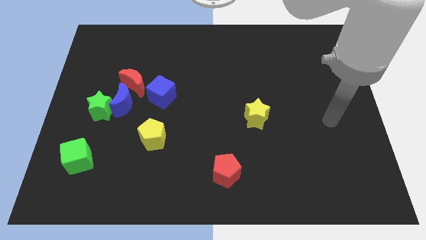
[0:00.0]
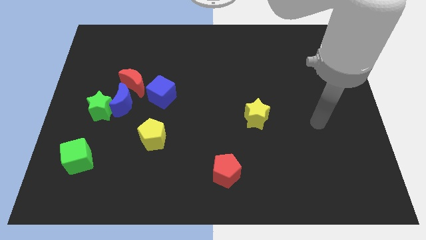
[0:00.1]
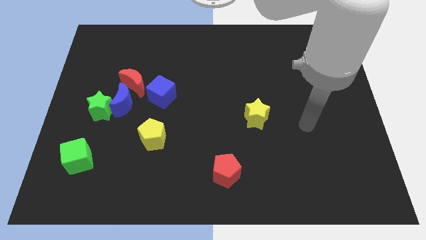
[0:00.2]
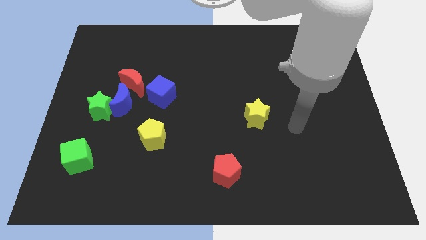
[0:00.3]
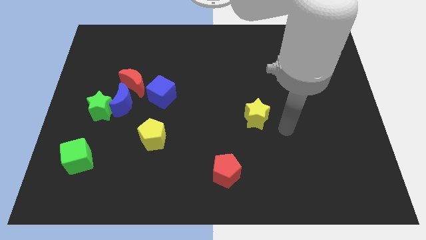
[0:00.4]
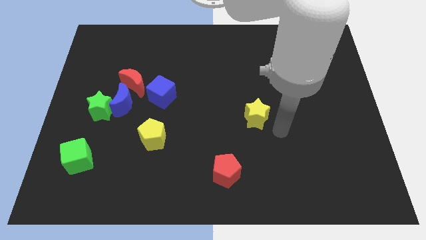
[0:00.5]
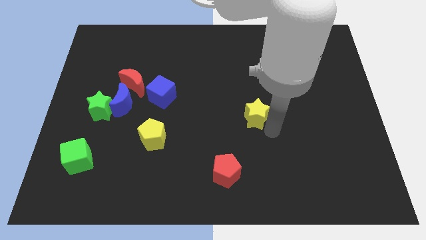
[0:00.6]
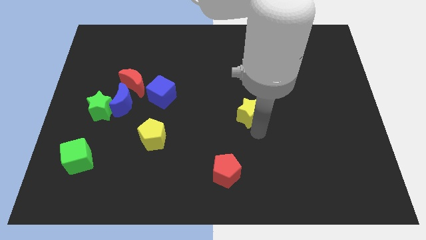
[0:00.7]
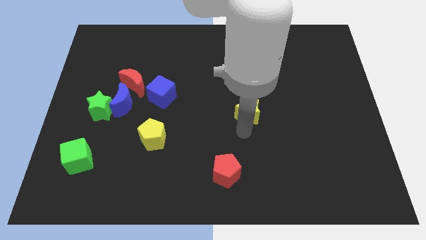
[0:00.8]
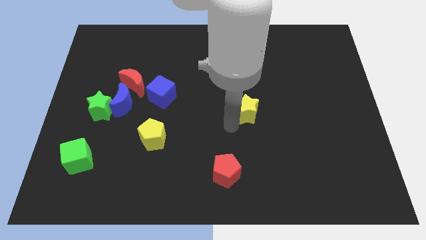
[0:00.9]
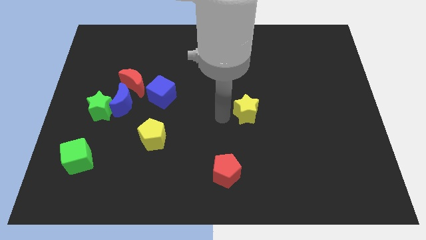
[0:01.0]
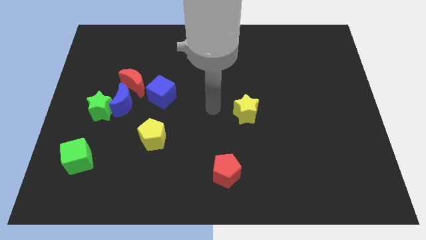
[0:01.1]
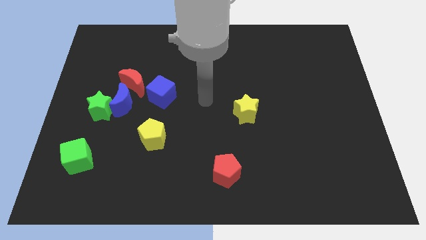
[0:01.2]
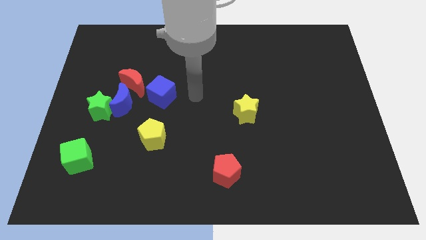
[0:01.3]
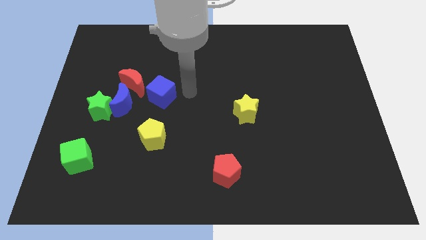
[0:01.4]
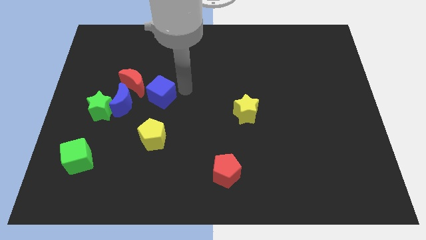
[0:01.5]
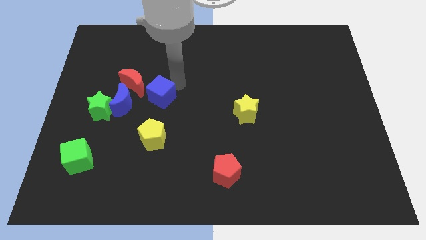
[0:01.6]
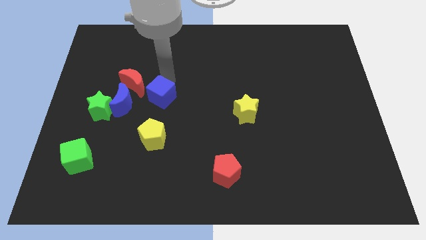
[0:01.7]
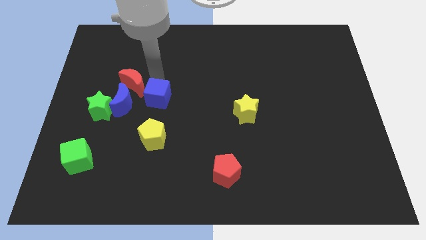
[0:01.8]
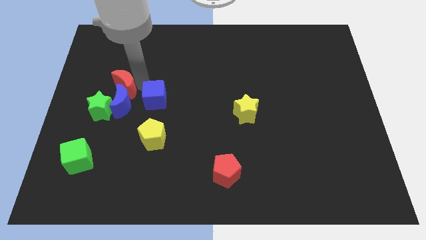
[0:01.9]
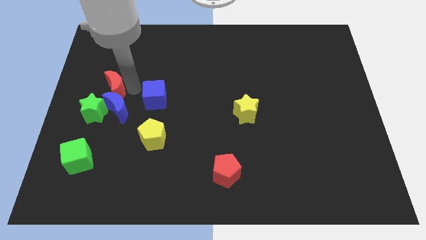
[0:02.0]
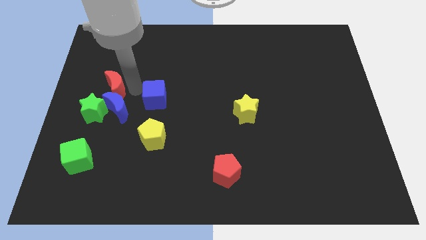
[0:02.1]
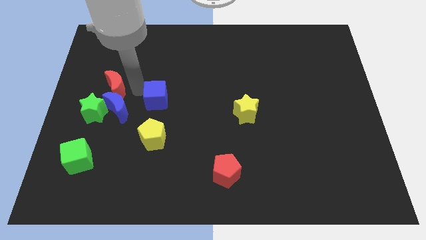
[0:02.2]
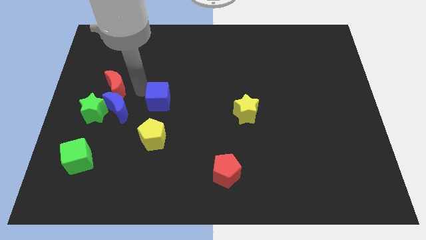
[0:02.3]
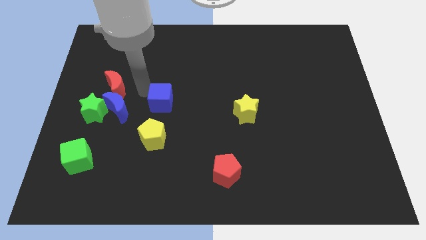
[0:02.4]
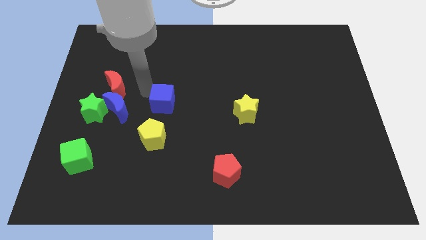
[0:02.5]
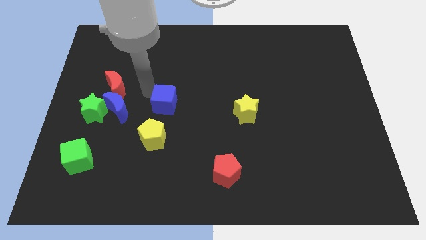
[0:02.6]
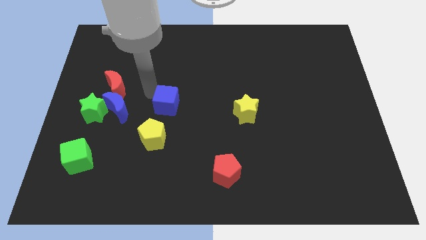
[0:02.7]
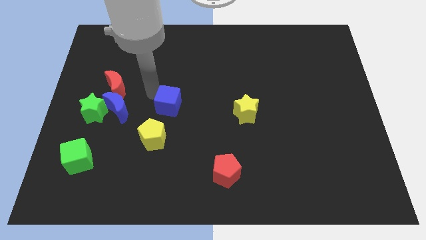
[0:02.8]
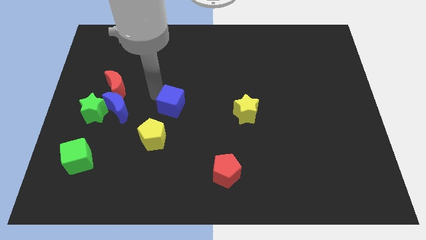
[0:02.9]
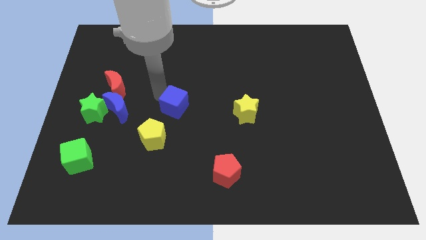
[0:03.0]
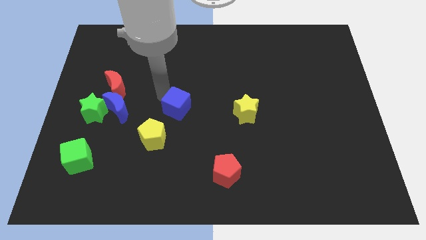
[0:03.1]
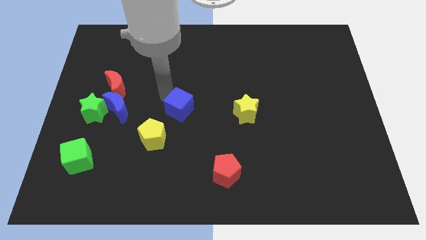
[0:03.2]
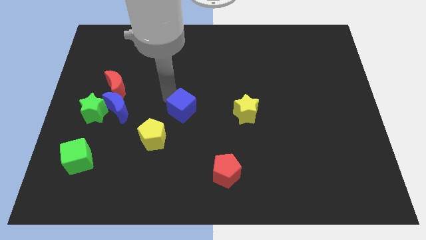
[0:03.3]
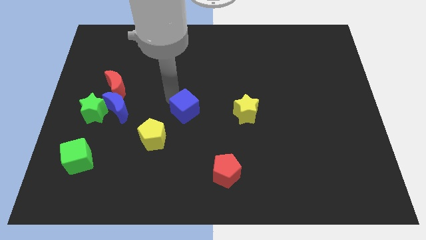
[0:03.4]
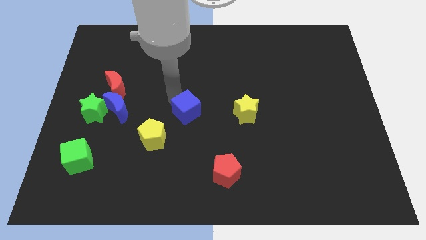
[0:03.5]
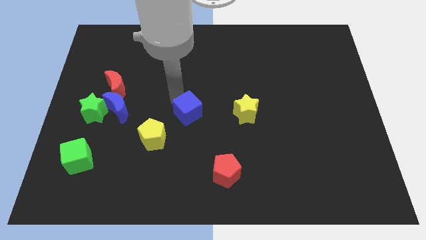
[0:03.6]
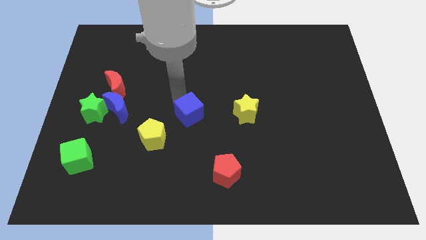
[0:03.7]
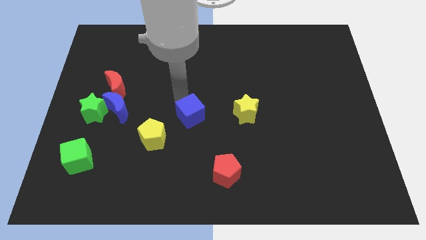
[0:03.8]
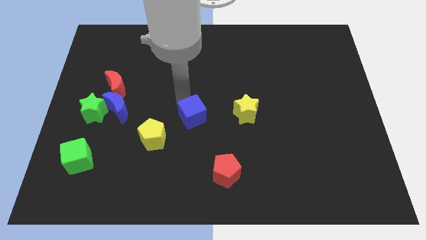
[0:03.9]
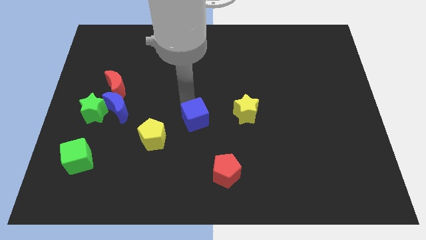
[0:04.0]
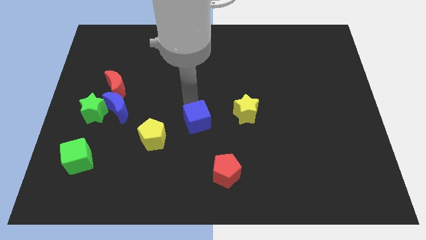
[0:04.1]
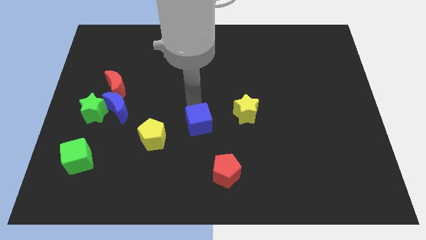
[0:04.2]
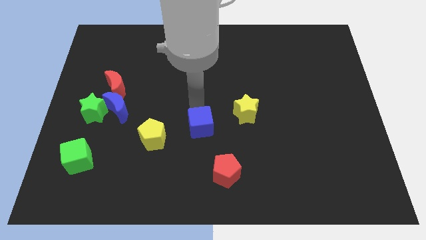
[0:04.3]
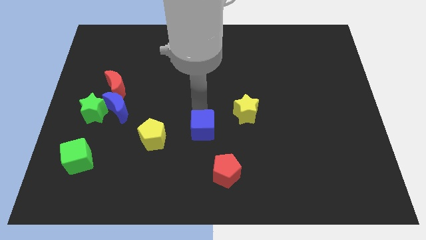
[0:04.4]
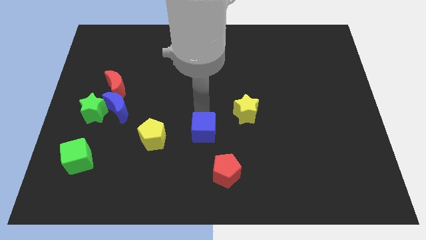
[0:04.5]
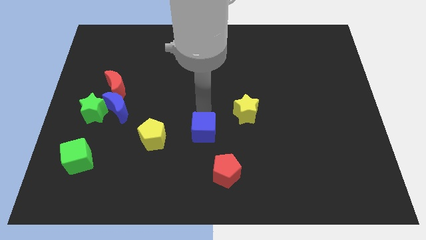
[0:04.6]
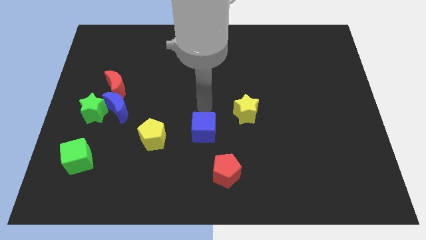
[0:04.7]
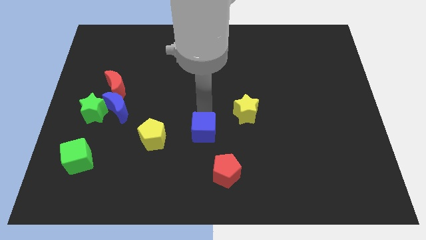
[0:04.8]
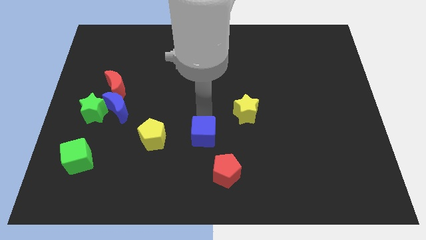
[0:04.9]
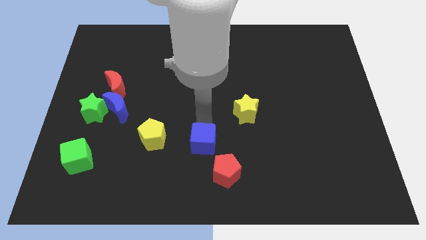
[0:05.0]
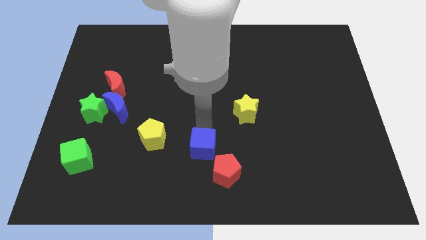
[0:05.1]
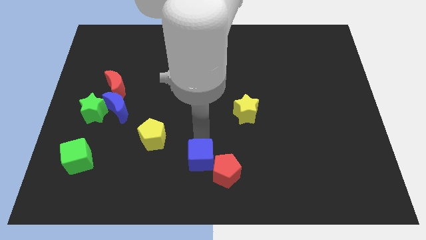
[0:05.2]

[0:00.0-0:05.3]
push the blue cube towards the red pentagon

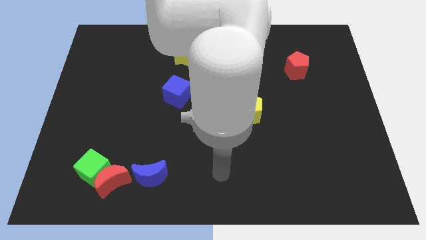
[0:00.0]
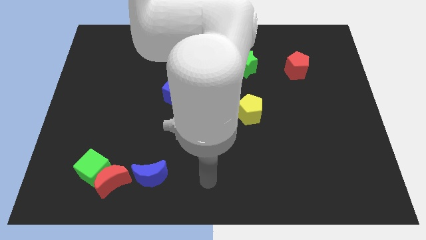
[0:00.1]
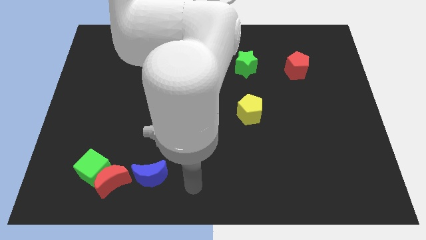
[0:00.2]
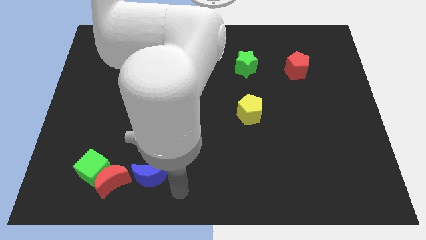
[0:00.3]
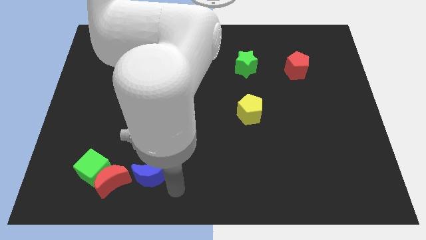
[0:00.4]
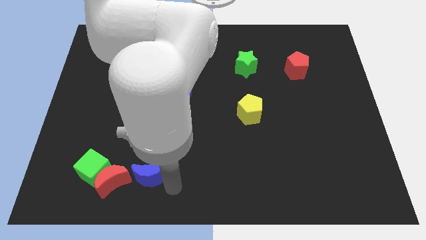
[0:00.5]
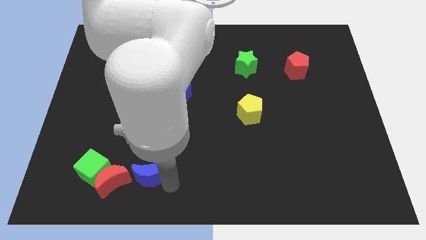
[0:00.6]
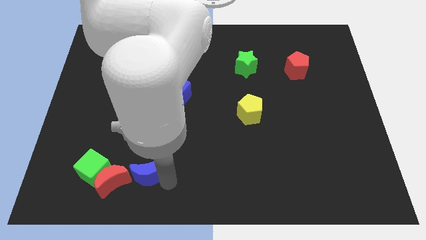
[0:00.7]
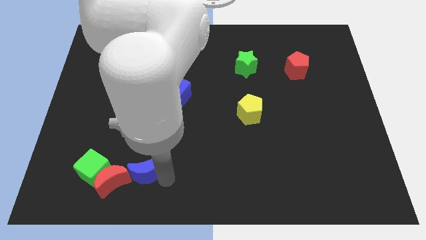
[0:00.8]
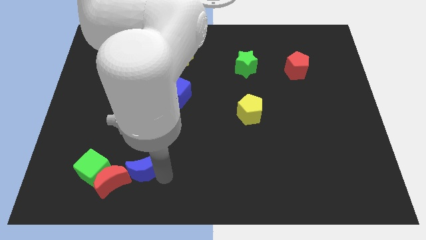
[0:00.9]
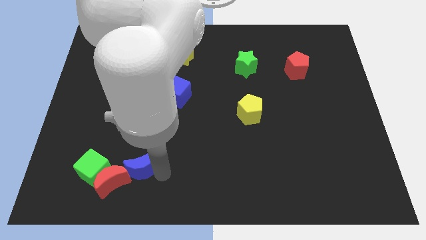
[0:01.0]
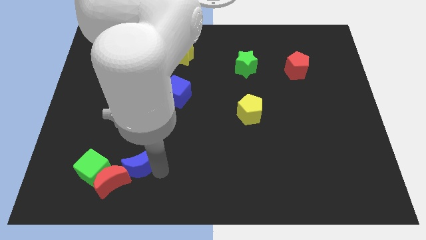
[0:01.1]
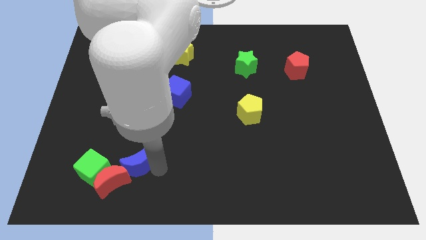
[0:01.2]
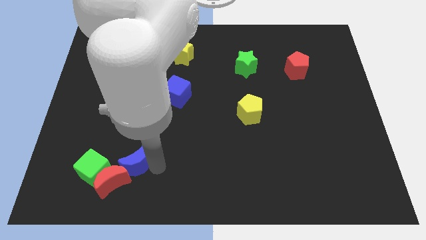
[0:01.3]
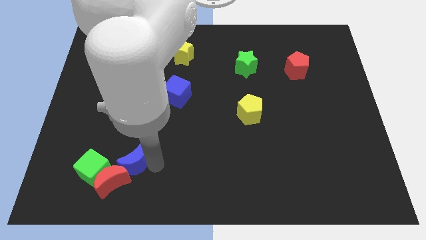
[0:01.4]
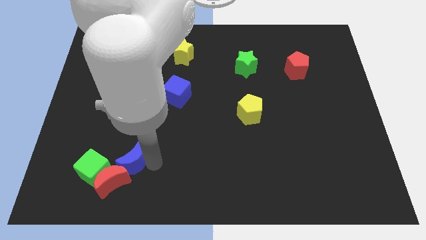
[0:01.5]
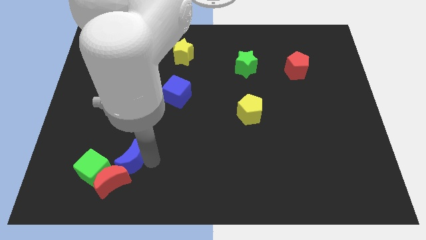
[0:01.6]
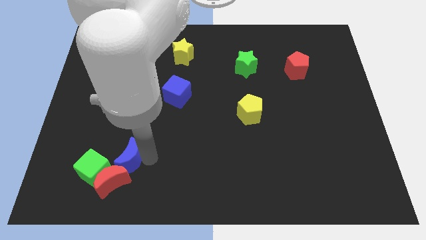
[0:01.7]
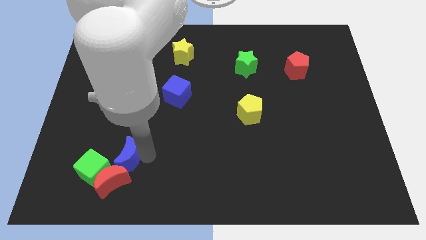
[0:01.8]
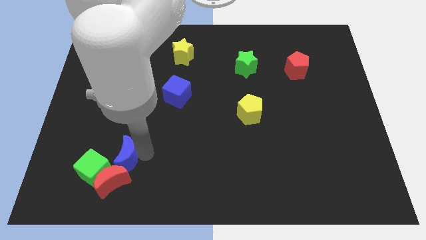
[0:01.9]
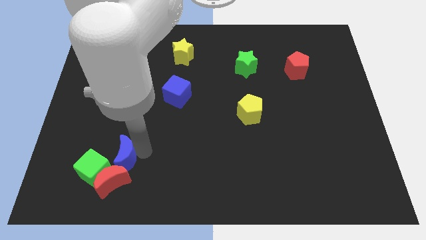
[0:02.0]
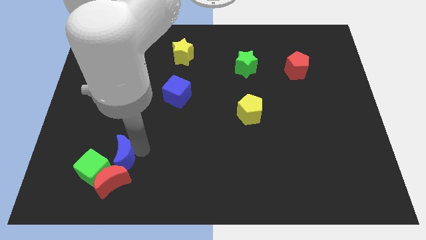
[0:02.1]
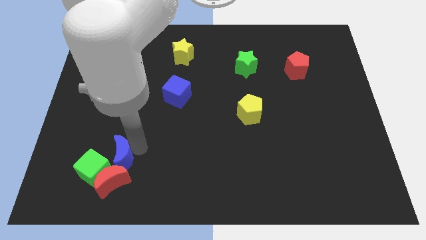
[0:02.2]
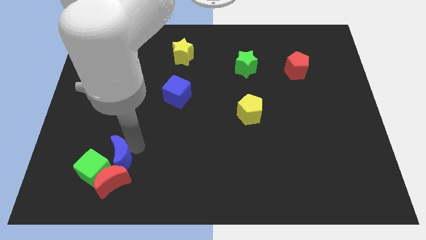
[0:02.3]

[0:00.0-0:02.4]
move the blue moon next to the green cube
